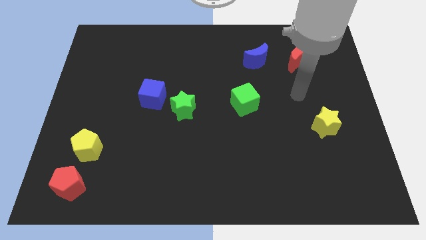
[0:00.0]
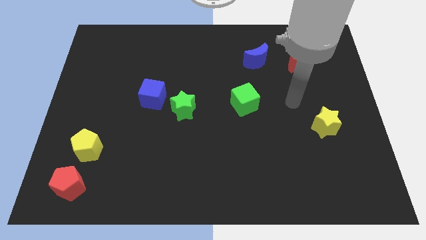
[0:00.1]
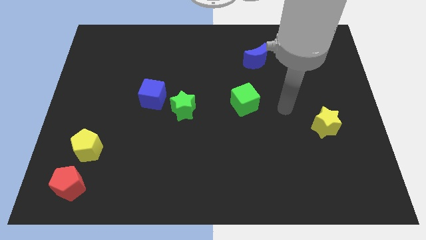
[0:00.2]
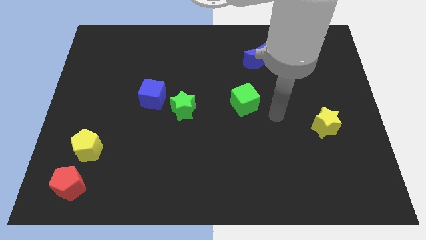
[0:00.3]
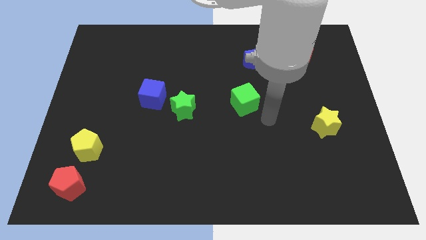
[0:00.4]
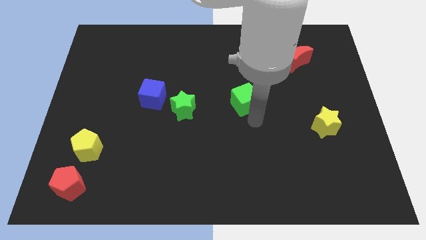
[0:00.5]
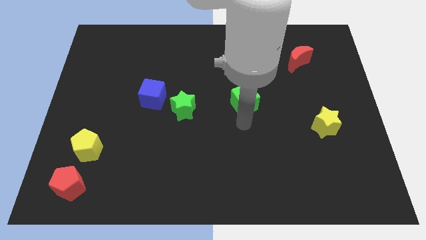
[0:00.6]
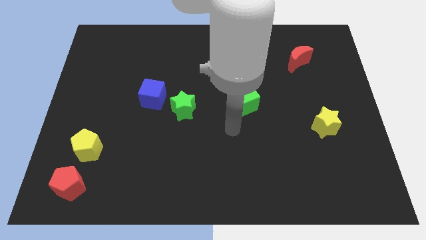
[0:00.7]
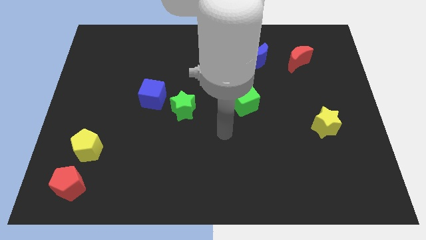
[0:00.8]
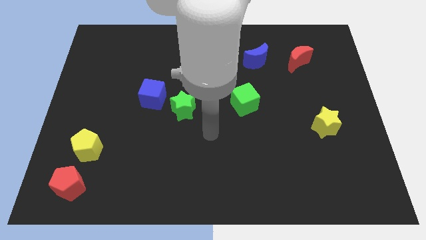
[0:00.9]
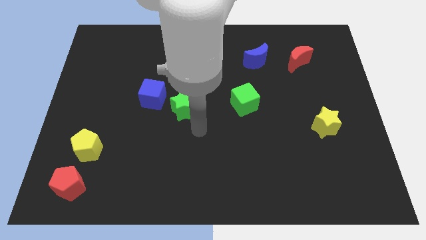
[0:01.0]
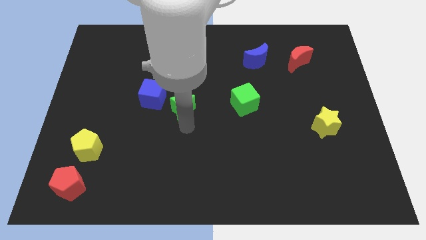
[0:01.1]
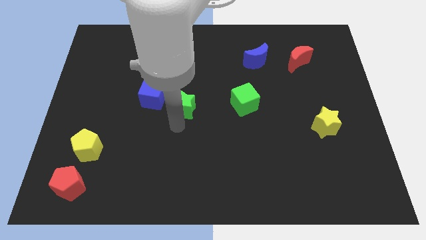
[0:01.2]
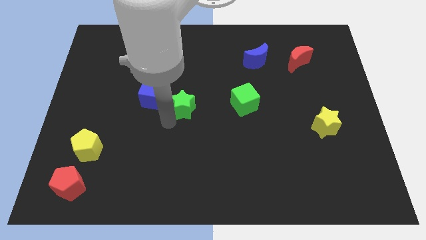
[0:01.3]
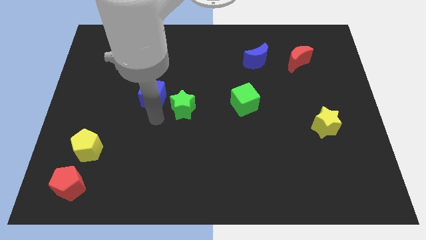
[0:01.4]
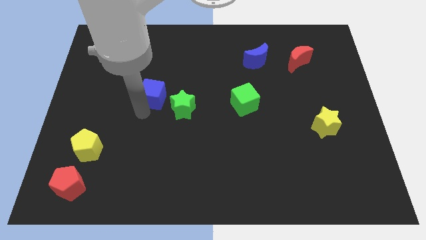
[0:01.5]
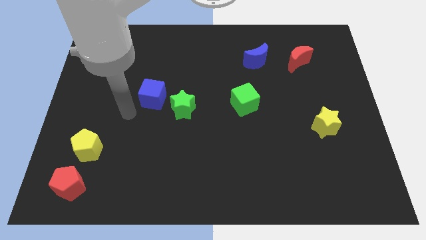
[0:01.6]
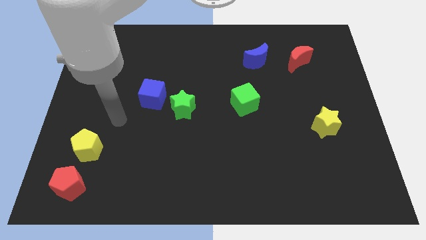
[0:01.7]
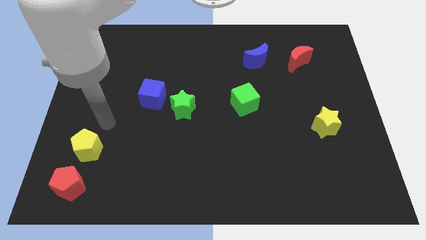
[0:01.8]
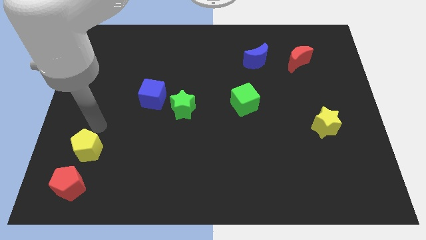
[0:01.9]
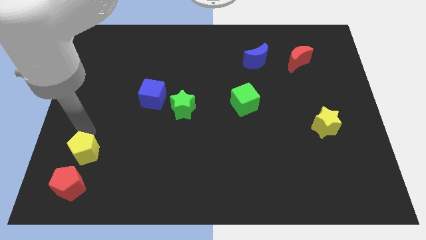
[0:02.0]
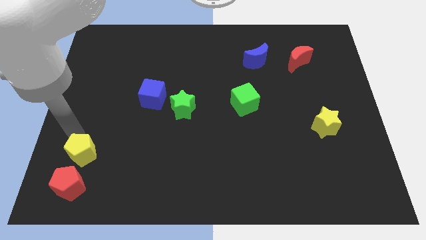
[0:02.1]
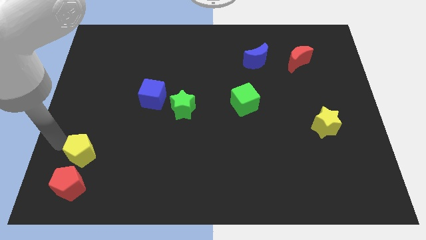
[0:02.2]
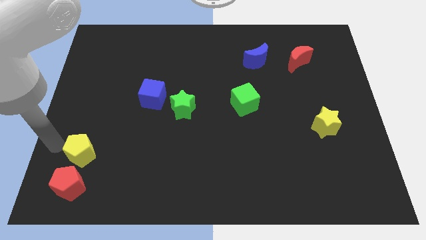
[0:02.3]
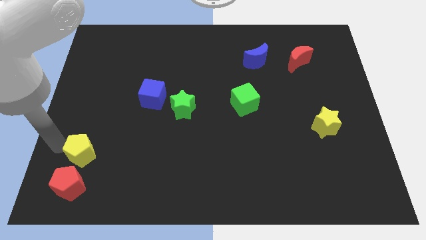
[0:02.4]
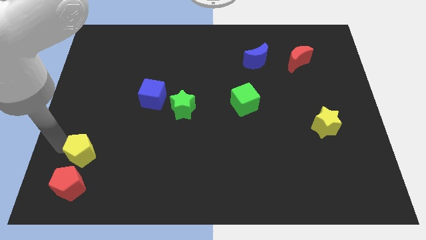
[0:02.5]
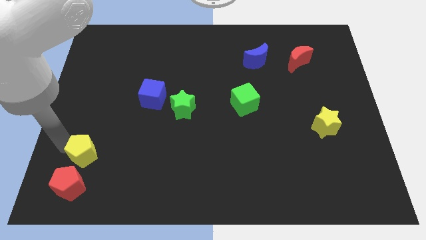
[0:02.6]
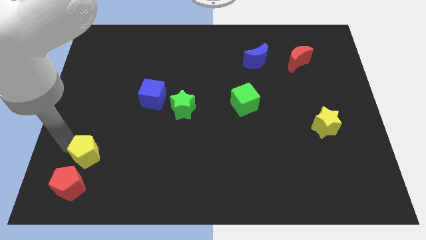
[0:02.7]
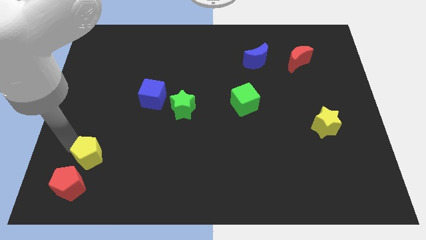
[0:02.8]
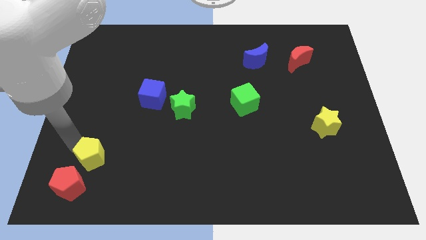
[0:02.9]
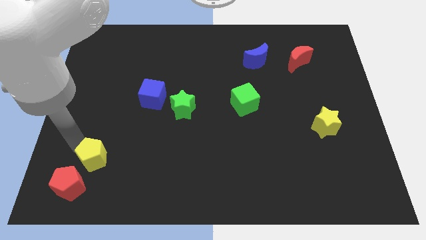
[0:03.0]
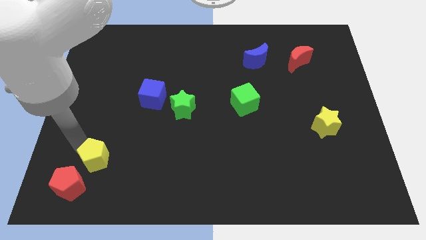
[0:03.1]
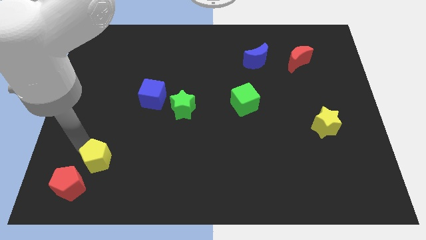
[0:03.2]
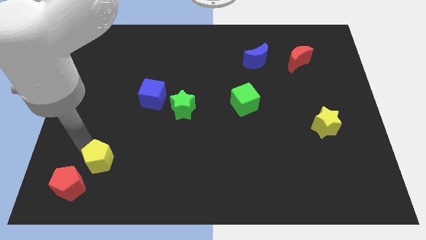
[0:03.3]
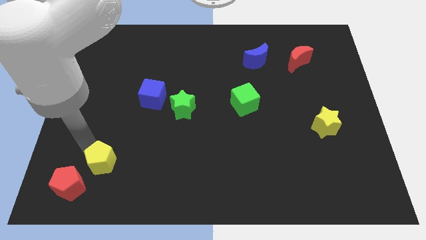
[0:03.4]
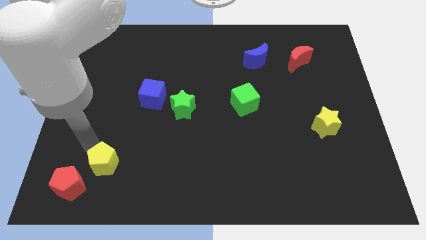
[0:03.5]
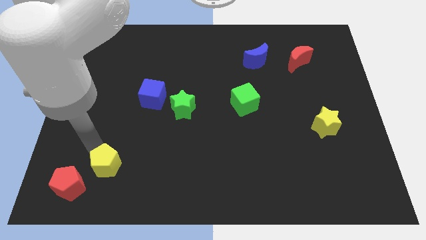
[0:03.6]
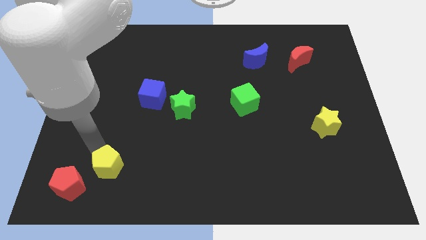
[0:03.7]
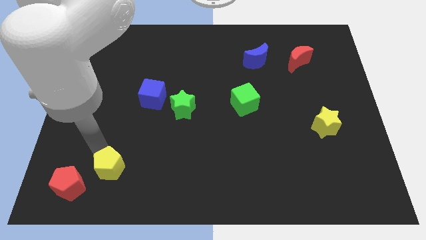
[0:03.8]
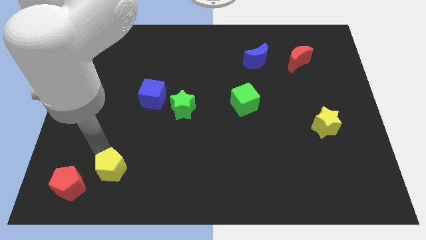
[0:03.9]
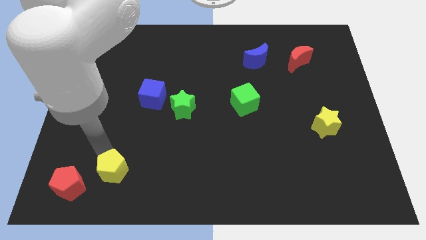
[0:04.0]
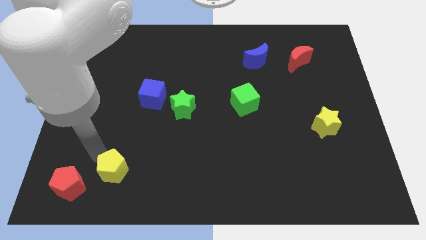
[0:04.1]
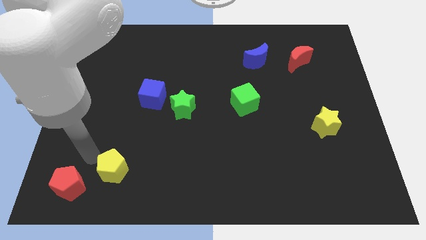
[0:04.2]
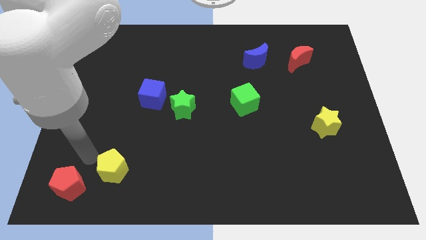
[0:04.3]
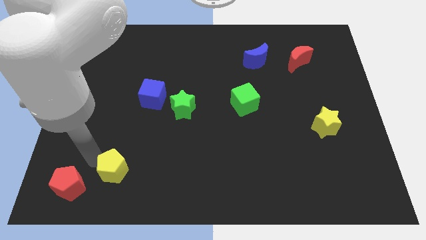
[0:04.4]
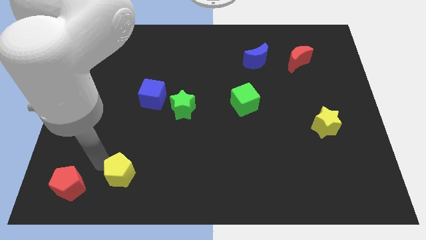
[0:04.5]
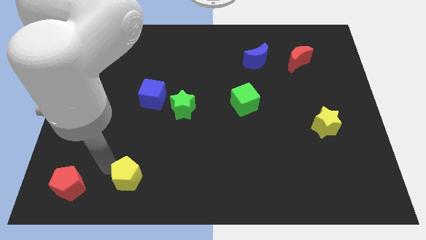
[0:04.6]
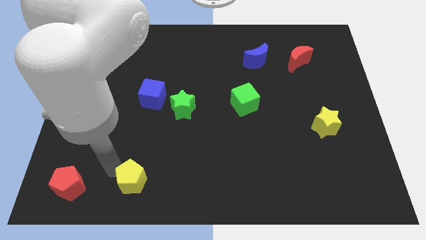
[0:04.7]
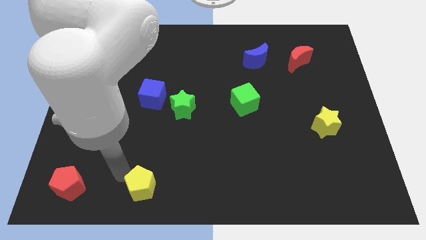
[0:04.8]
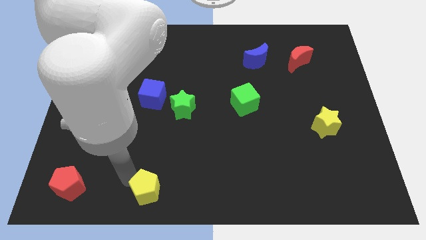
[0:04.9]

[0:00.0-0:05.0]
put the yellow pentagon to the bottom

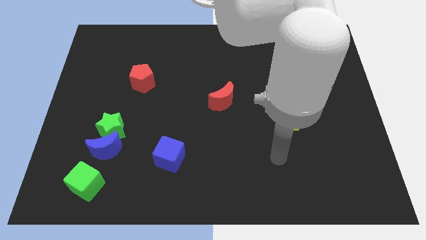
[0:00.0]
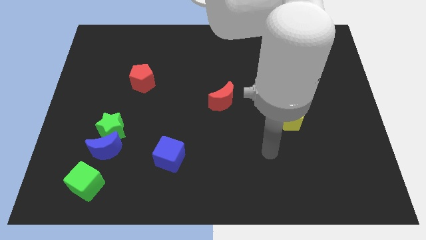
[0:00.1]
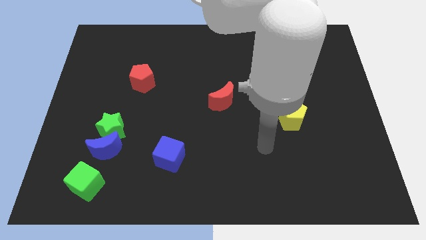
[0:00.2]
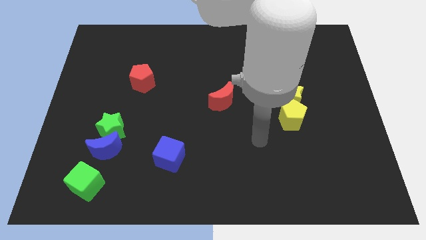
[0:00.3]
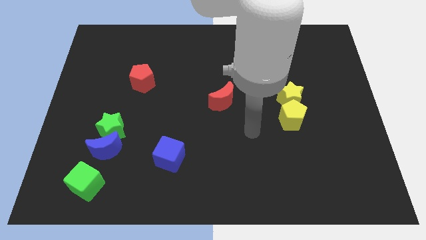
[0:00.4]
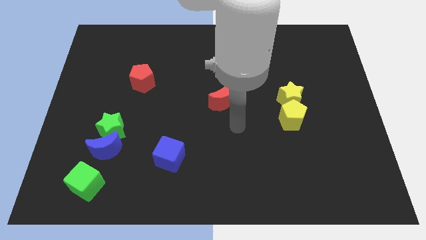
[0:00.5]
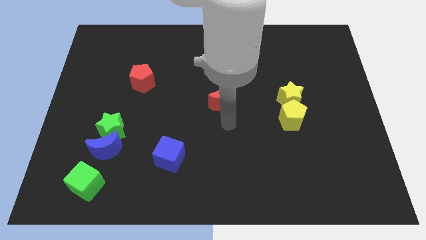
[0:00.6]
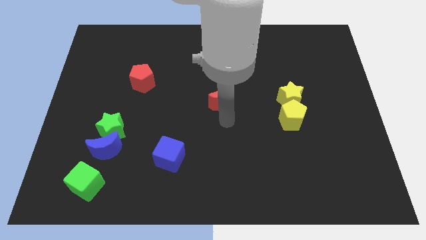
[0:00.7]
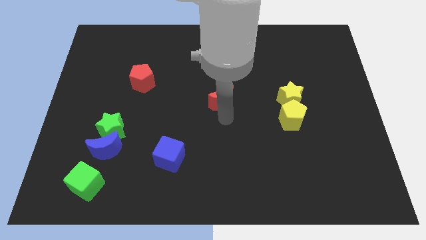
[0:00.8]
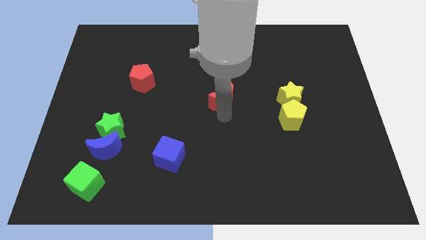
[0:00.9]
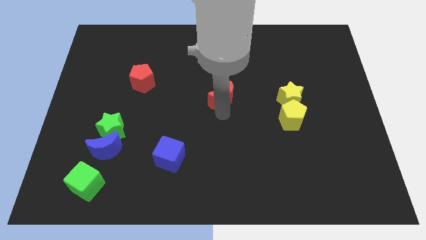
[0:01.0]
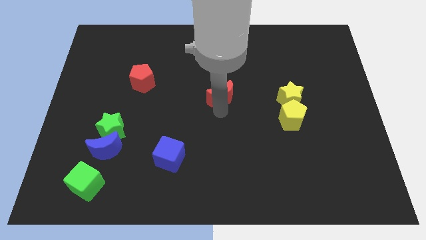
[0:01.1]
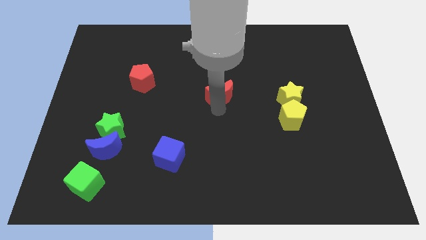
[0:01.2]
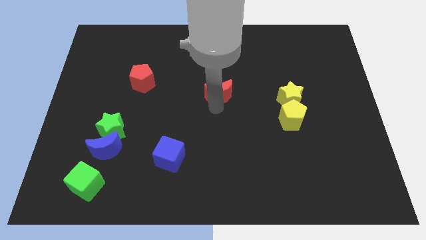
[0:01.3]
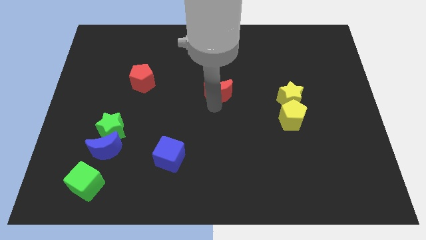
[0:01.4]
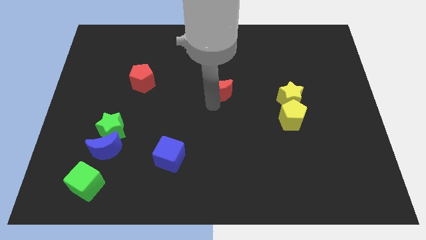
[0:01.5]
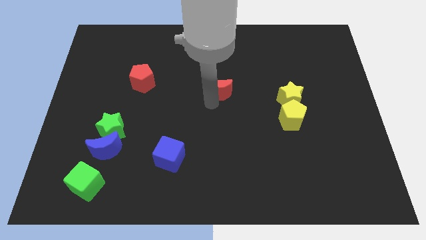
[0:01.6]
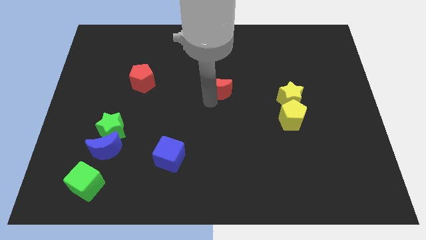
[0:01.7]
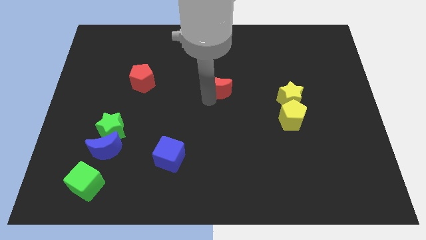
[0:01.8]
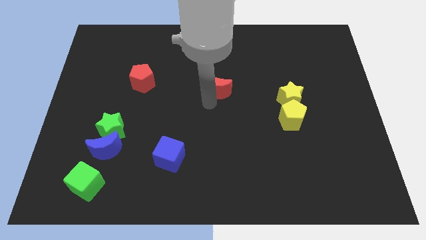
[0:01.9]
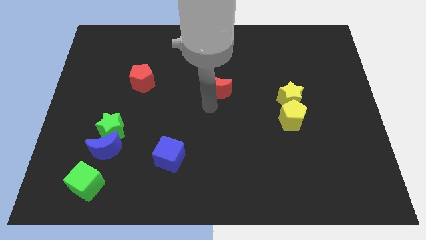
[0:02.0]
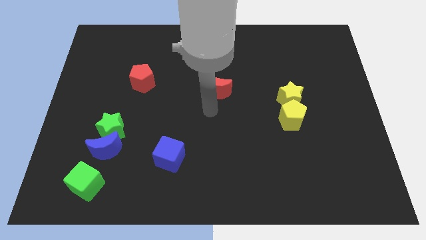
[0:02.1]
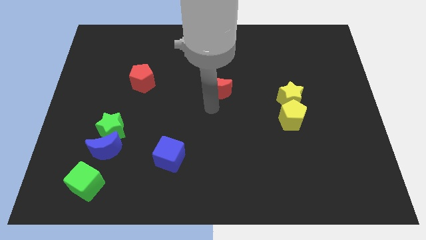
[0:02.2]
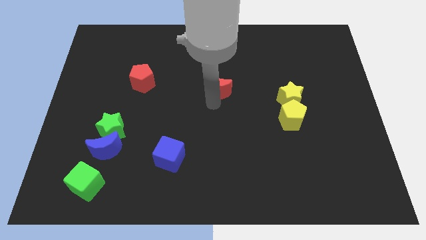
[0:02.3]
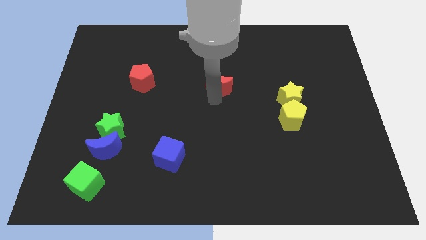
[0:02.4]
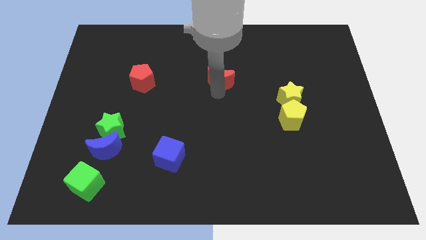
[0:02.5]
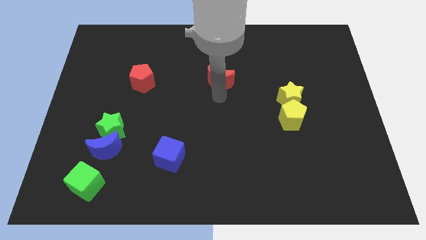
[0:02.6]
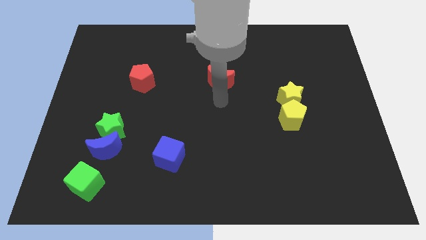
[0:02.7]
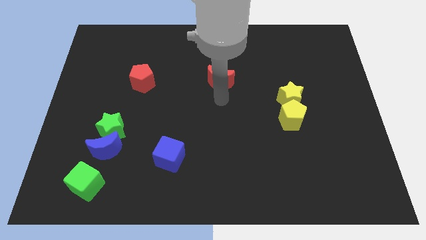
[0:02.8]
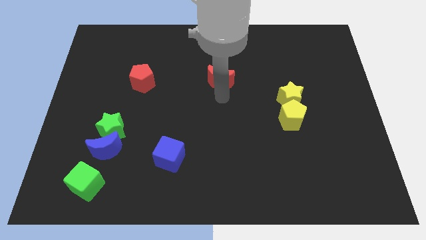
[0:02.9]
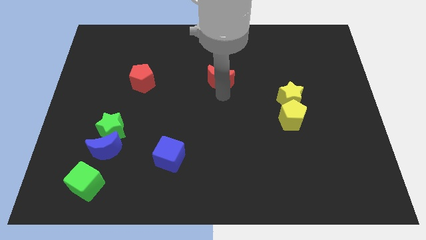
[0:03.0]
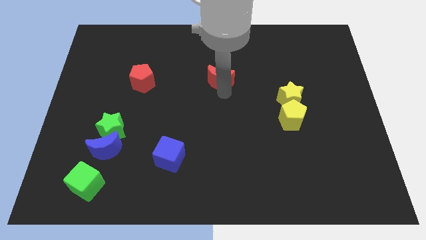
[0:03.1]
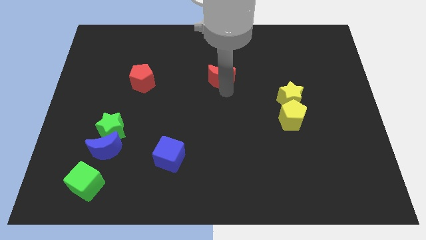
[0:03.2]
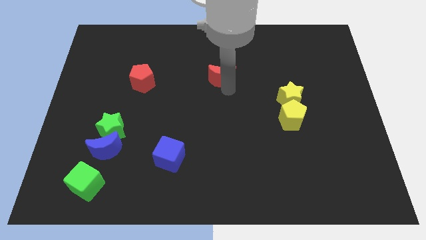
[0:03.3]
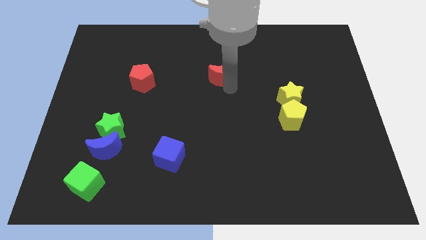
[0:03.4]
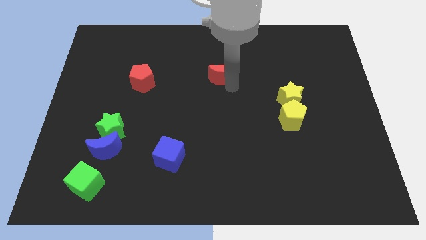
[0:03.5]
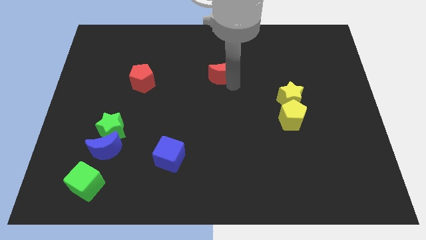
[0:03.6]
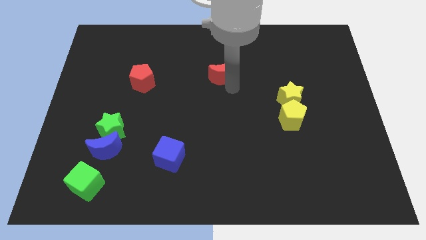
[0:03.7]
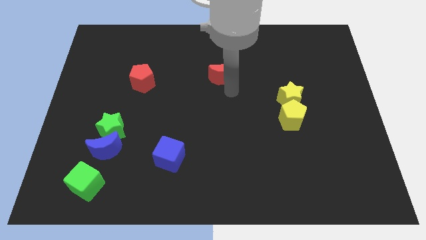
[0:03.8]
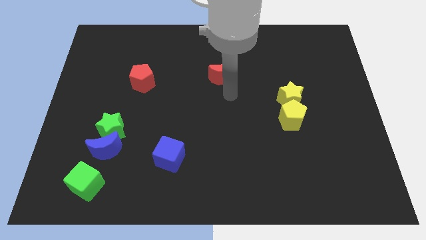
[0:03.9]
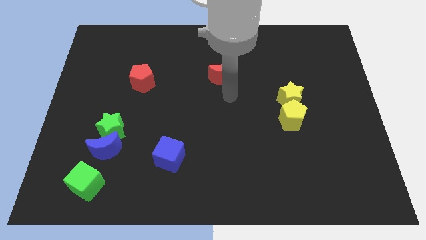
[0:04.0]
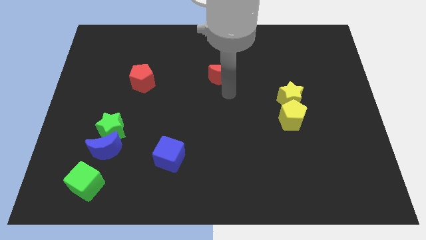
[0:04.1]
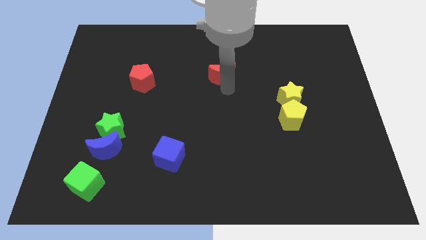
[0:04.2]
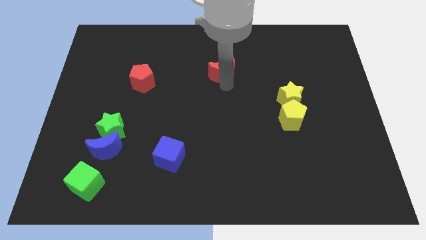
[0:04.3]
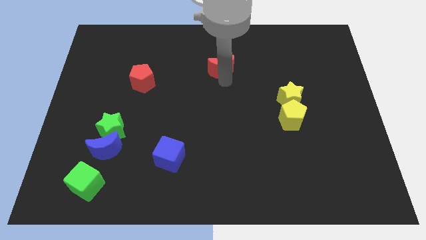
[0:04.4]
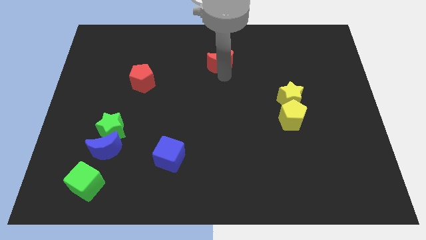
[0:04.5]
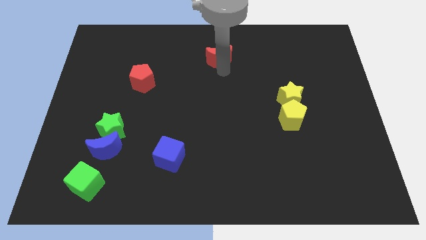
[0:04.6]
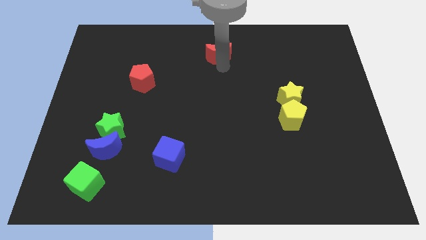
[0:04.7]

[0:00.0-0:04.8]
slide the red moon to the towards your base
